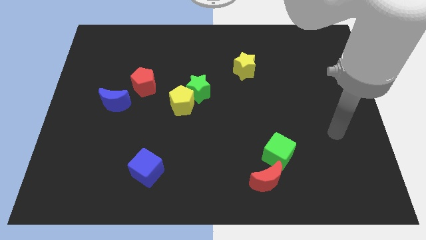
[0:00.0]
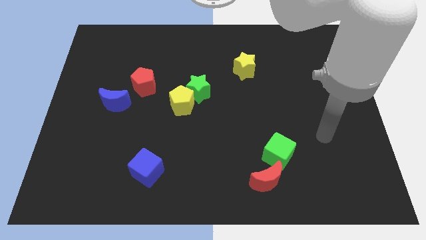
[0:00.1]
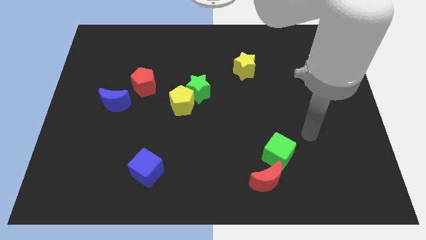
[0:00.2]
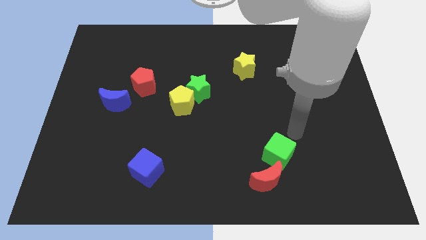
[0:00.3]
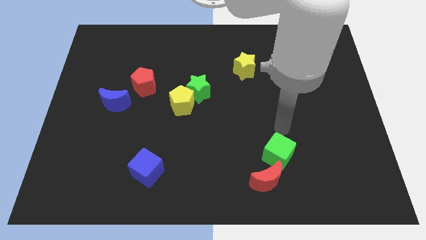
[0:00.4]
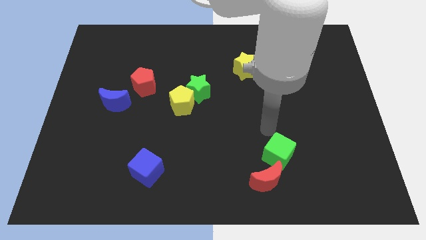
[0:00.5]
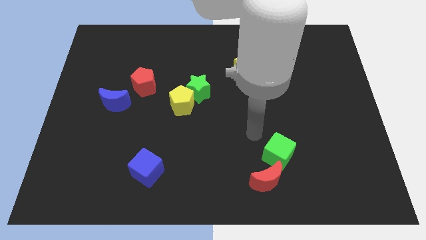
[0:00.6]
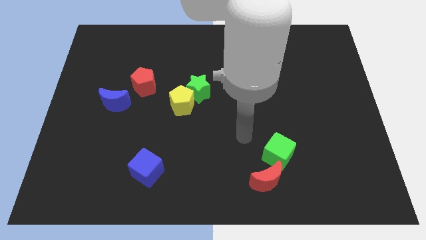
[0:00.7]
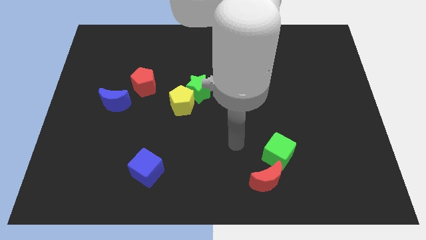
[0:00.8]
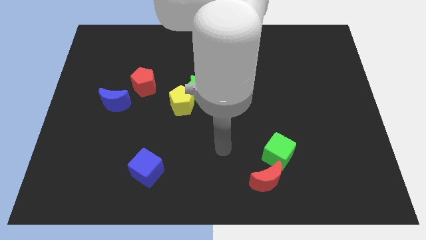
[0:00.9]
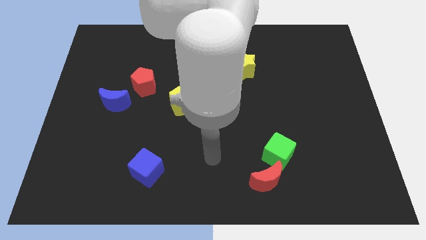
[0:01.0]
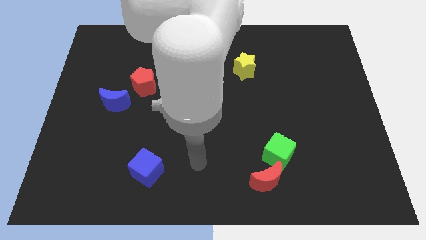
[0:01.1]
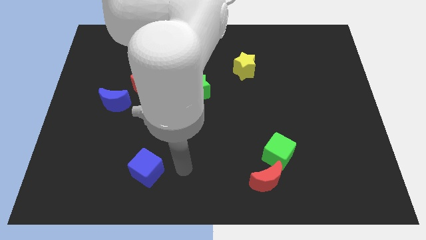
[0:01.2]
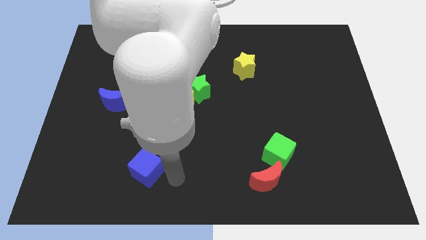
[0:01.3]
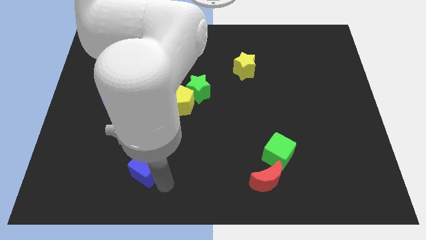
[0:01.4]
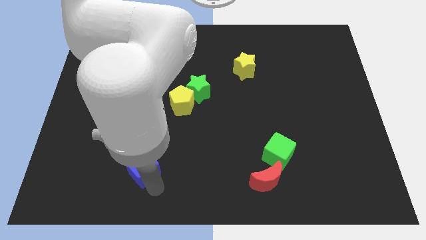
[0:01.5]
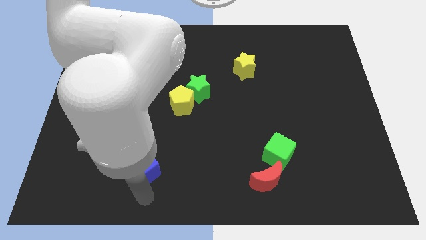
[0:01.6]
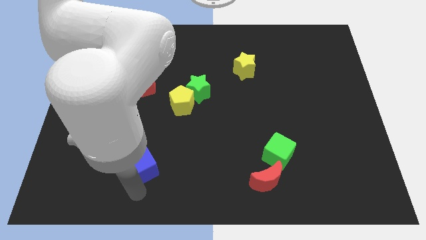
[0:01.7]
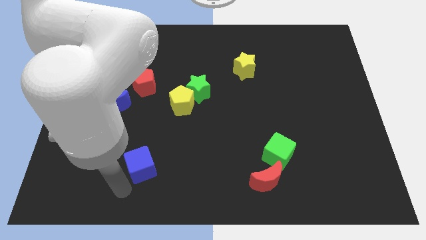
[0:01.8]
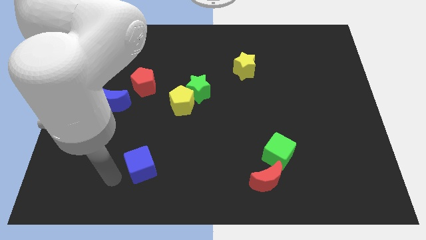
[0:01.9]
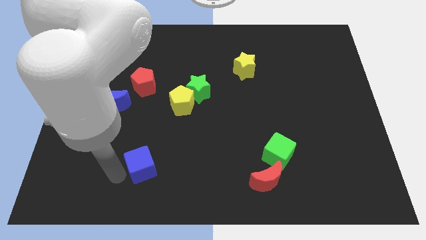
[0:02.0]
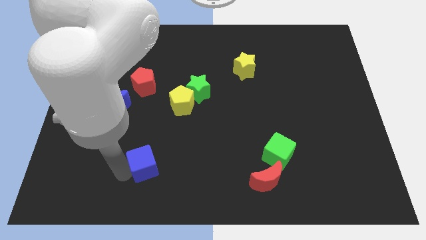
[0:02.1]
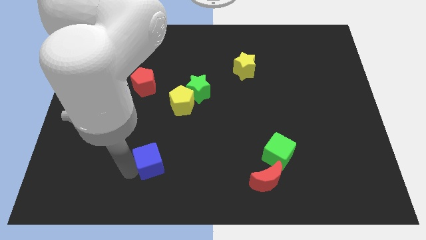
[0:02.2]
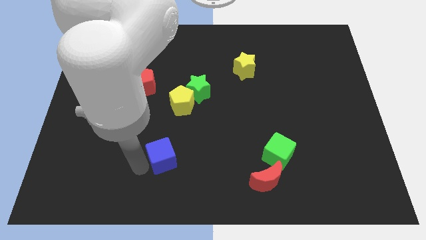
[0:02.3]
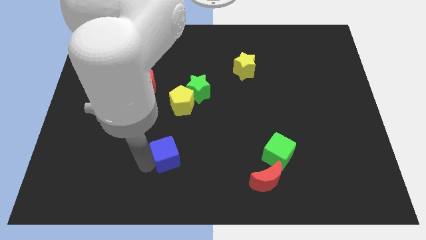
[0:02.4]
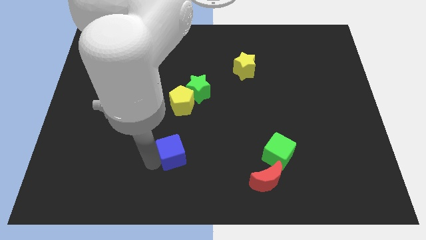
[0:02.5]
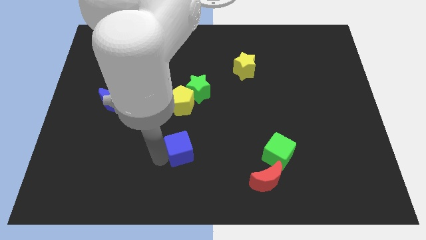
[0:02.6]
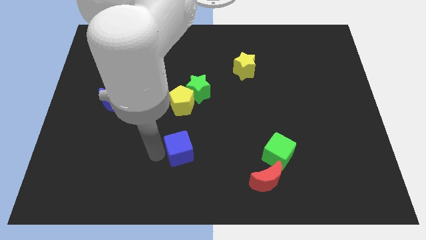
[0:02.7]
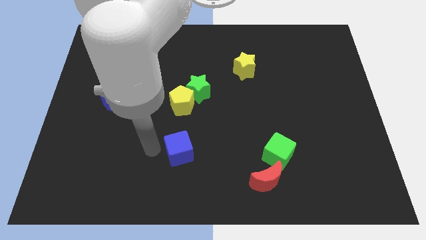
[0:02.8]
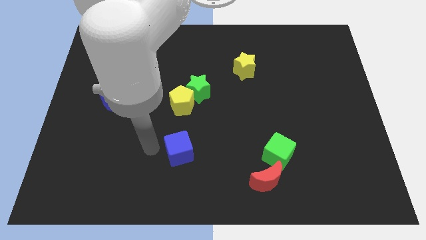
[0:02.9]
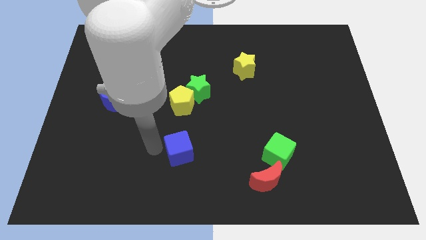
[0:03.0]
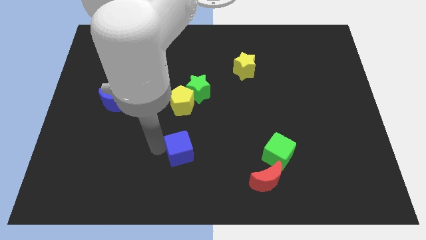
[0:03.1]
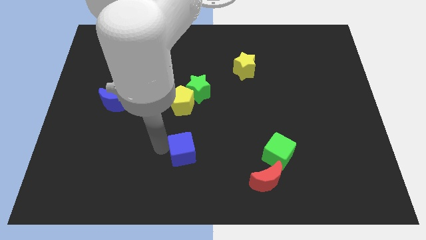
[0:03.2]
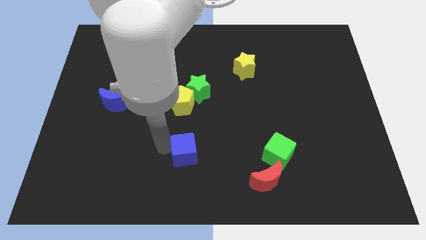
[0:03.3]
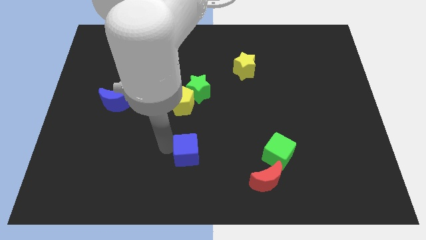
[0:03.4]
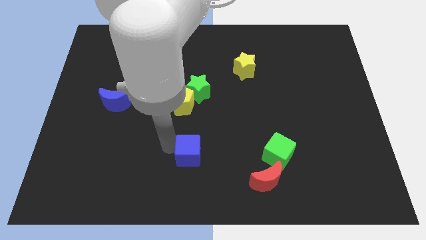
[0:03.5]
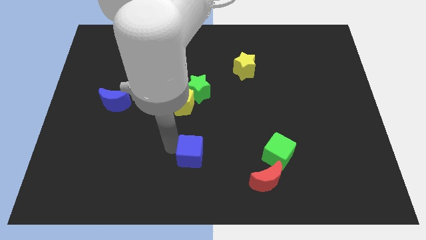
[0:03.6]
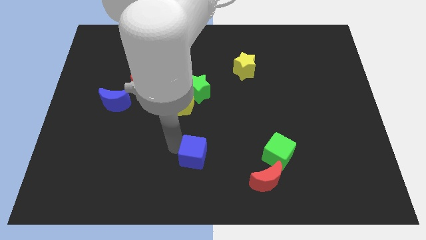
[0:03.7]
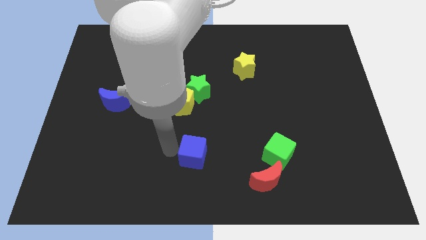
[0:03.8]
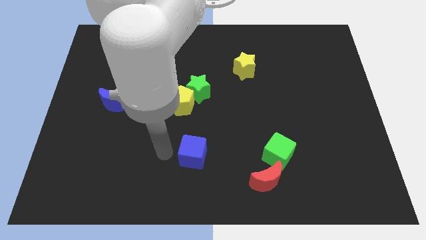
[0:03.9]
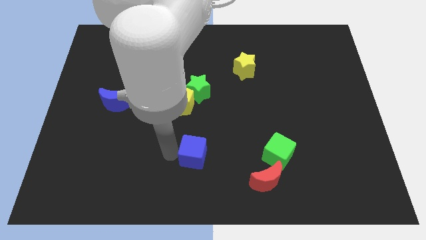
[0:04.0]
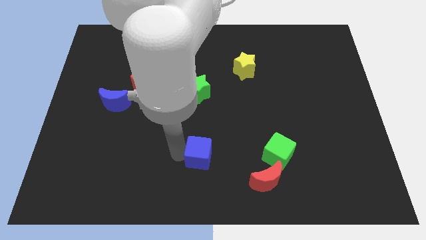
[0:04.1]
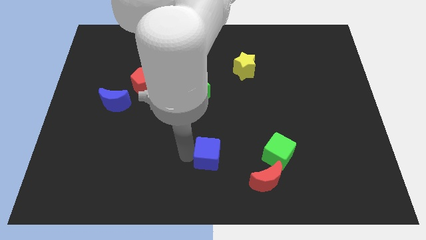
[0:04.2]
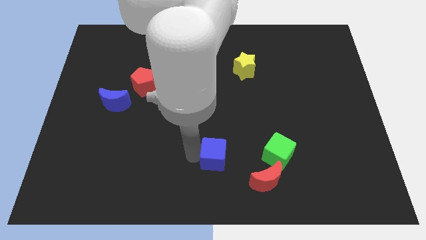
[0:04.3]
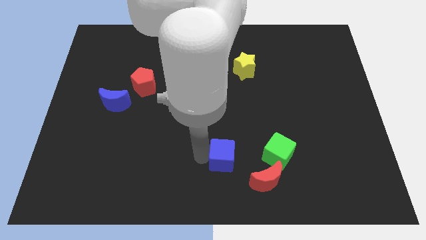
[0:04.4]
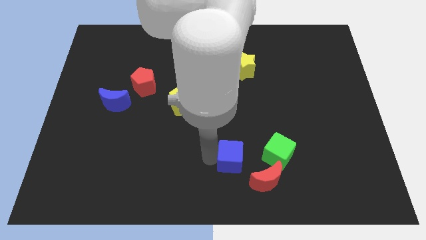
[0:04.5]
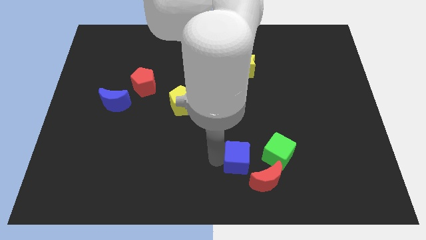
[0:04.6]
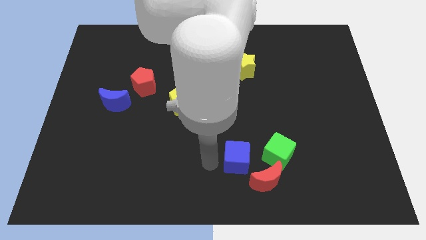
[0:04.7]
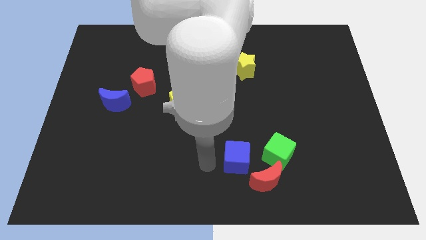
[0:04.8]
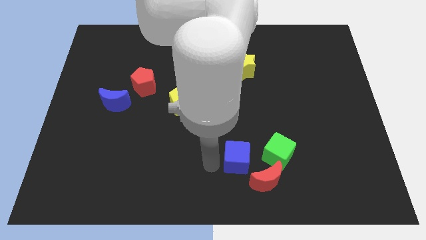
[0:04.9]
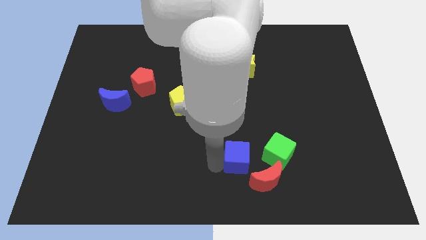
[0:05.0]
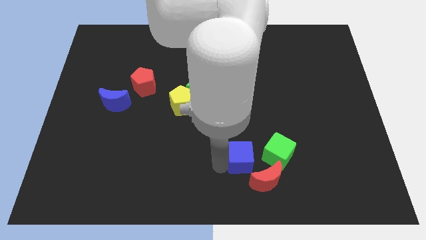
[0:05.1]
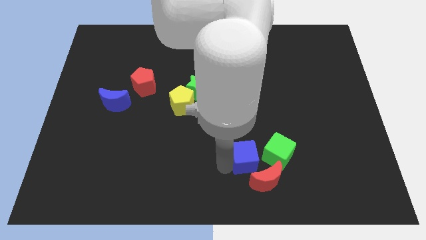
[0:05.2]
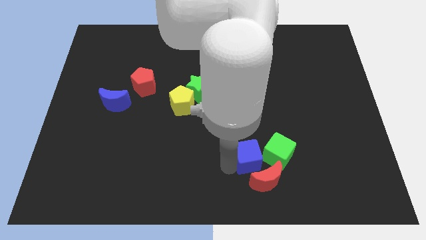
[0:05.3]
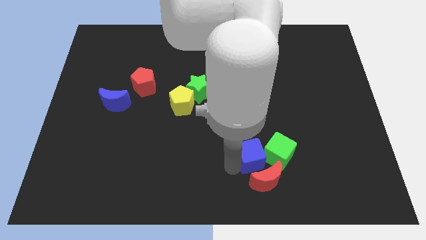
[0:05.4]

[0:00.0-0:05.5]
push the blue cube close to the green cube

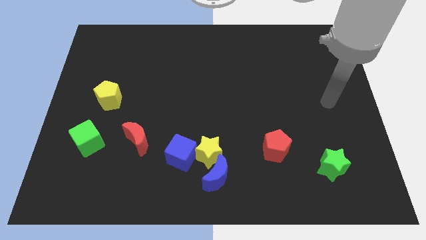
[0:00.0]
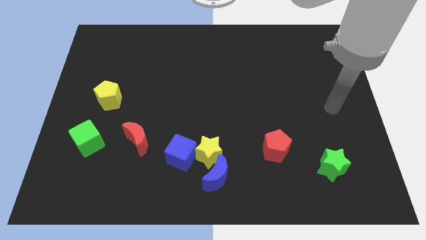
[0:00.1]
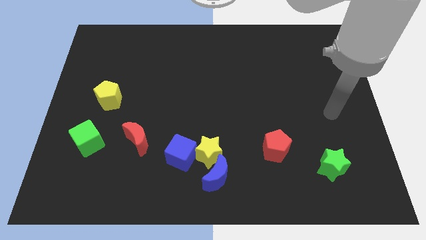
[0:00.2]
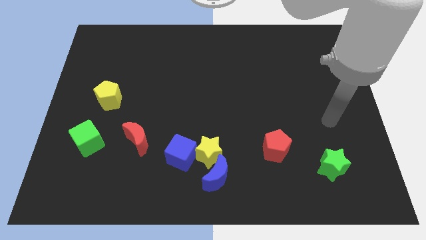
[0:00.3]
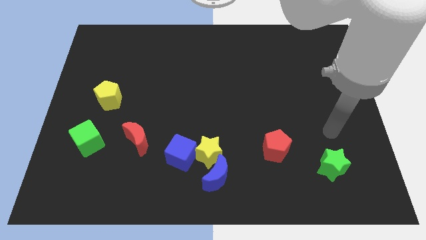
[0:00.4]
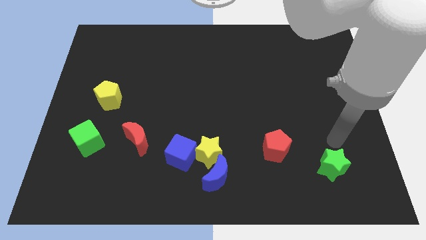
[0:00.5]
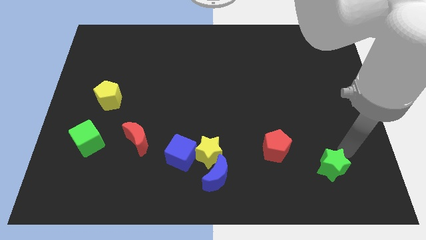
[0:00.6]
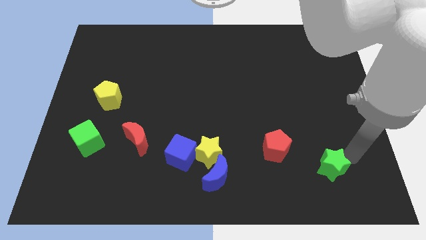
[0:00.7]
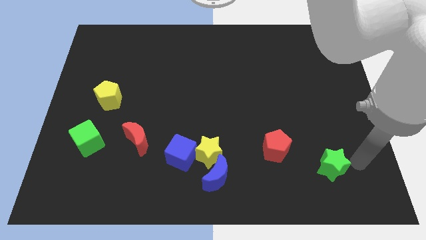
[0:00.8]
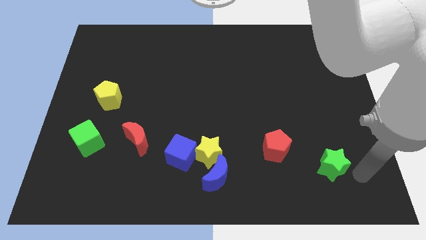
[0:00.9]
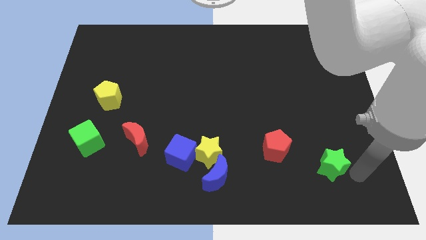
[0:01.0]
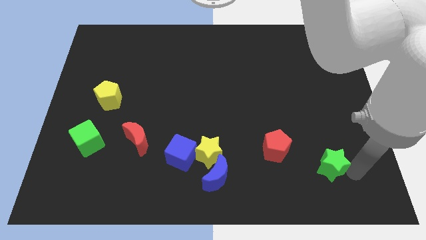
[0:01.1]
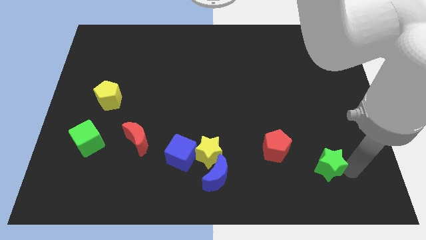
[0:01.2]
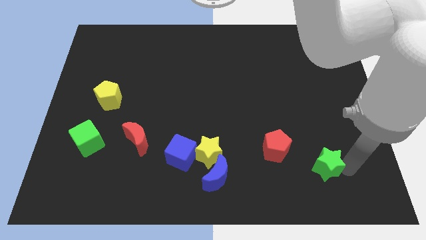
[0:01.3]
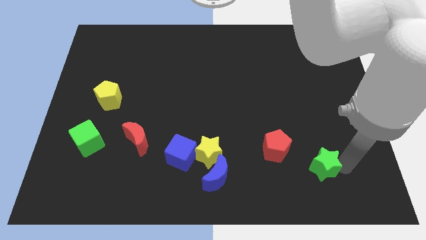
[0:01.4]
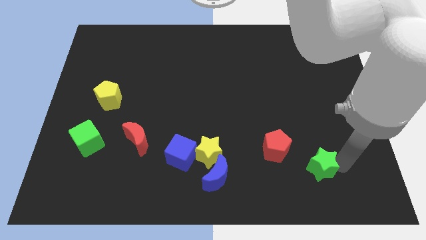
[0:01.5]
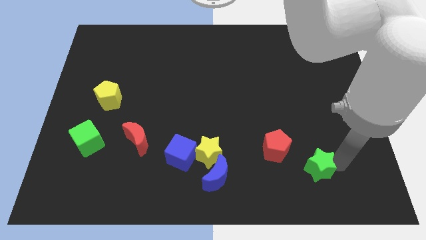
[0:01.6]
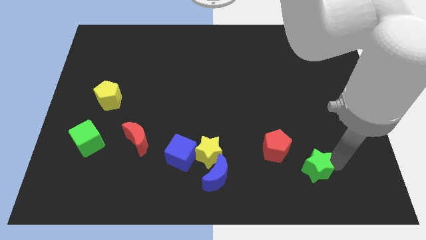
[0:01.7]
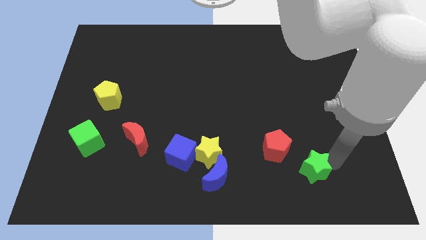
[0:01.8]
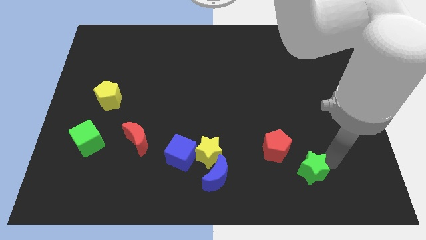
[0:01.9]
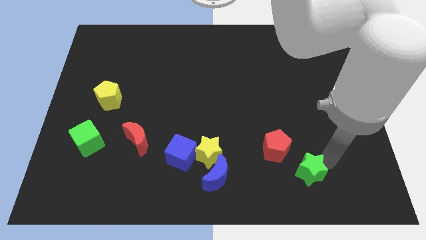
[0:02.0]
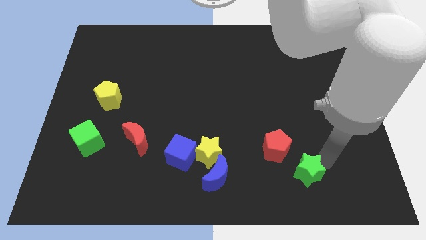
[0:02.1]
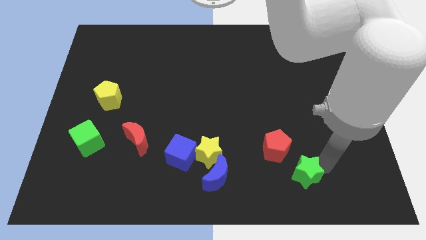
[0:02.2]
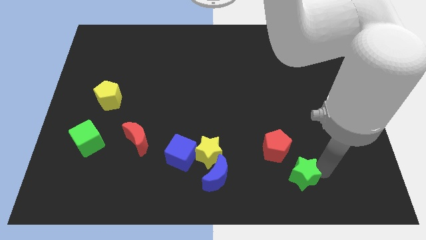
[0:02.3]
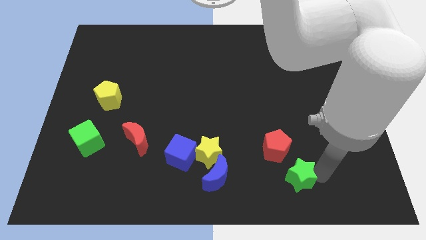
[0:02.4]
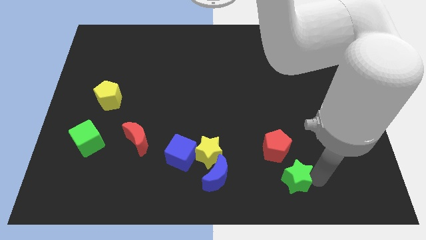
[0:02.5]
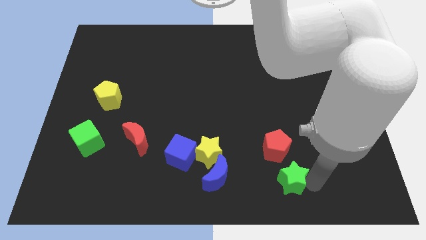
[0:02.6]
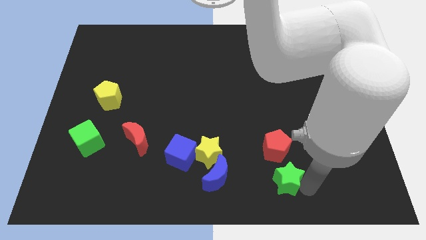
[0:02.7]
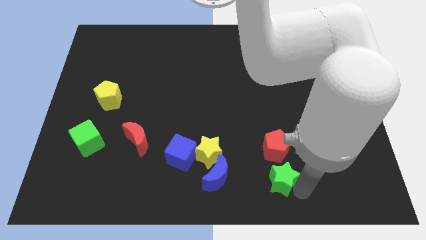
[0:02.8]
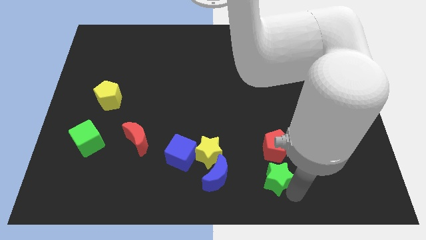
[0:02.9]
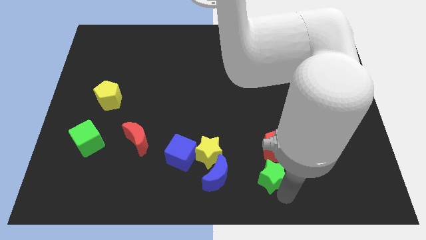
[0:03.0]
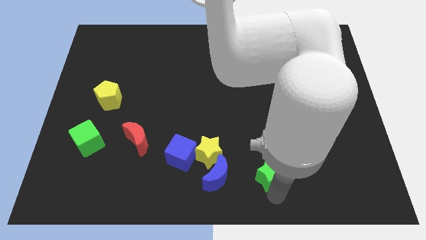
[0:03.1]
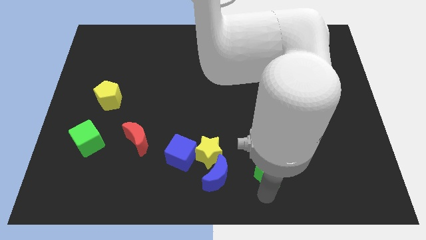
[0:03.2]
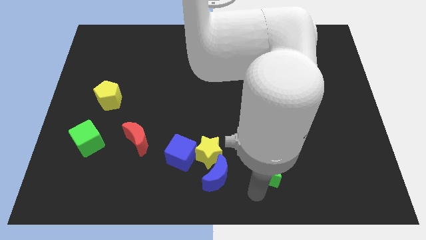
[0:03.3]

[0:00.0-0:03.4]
push the green star to the red pentagon
